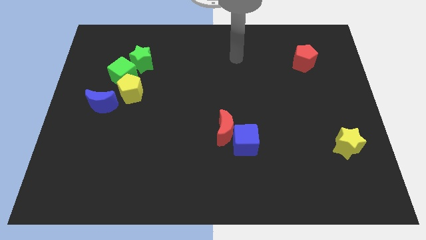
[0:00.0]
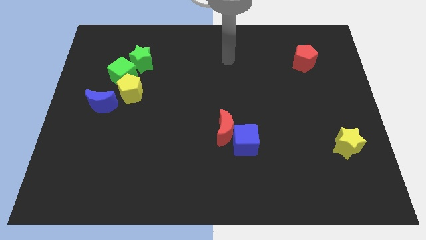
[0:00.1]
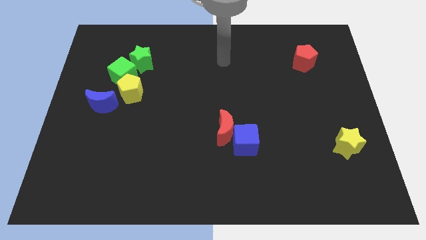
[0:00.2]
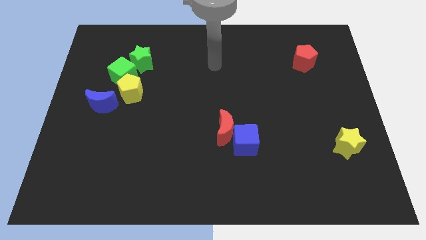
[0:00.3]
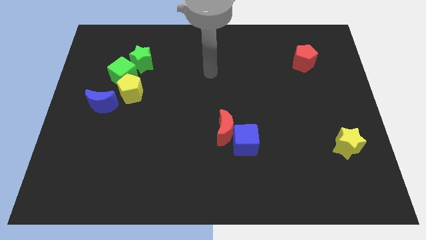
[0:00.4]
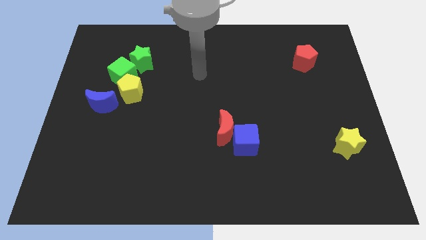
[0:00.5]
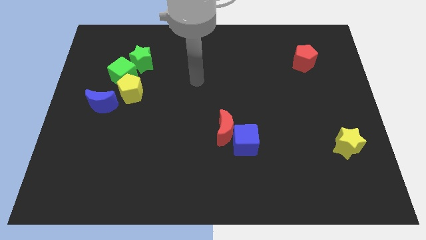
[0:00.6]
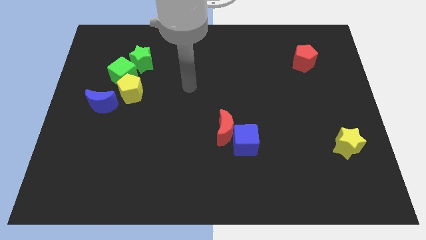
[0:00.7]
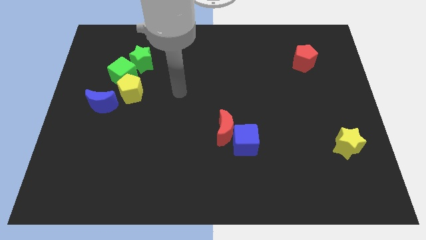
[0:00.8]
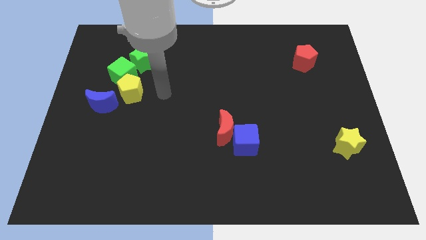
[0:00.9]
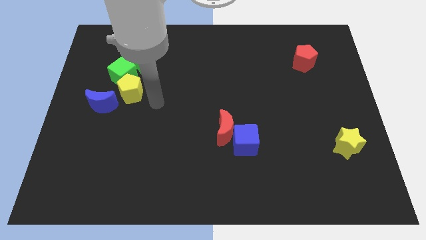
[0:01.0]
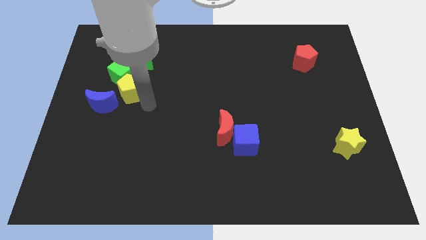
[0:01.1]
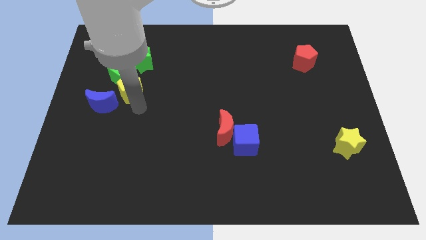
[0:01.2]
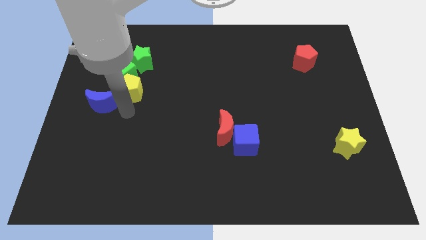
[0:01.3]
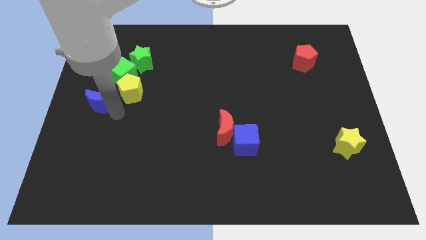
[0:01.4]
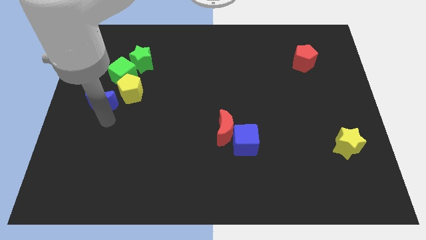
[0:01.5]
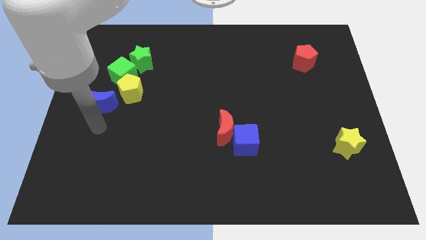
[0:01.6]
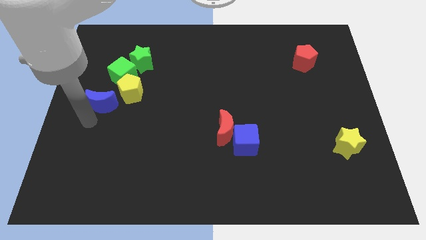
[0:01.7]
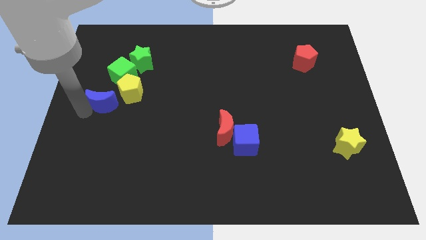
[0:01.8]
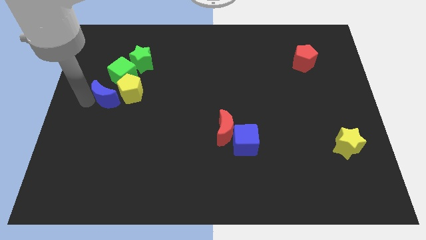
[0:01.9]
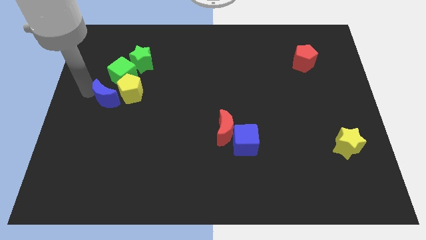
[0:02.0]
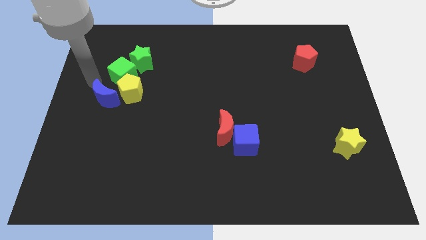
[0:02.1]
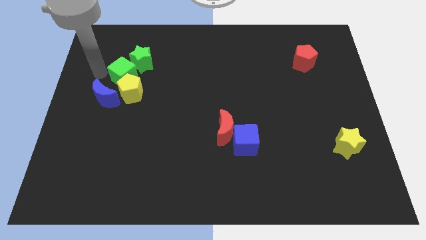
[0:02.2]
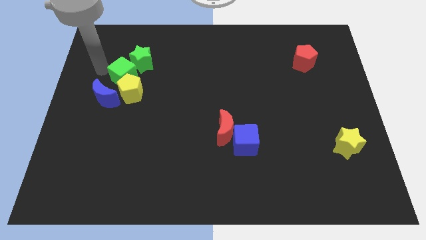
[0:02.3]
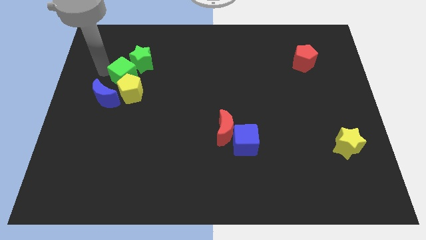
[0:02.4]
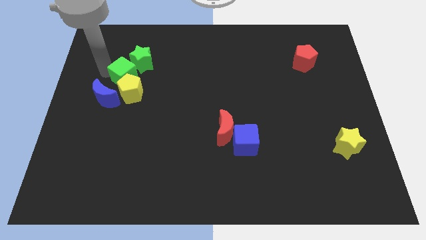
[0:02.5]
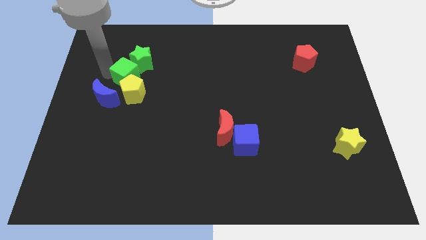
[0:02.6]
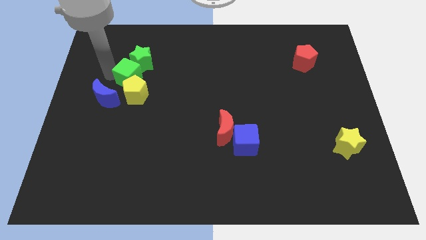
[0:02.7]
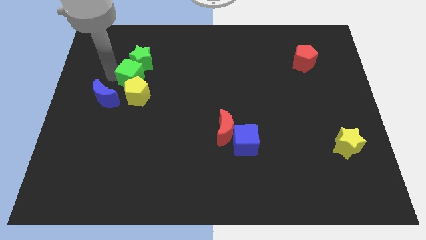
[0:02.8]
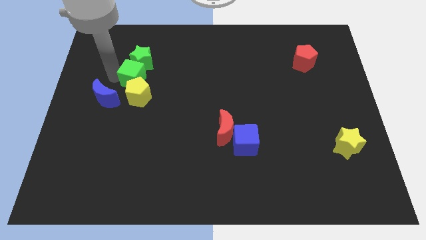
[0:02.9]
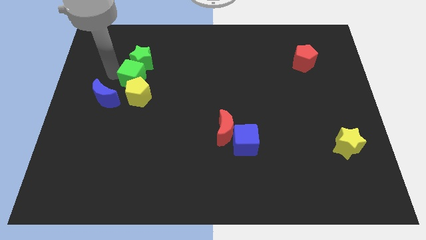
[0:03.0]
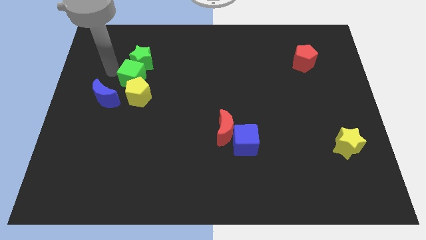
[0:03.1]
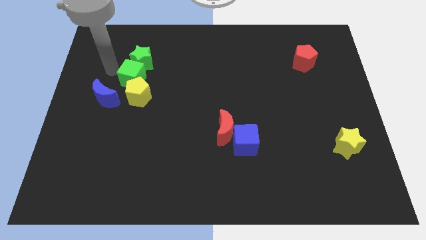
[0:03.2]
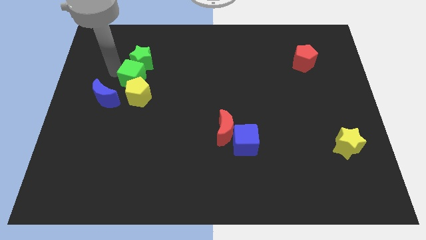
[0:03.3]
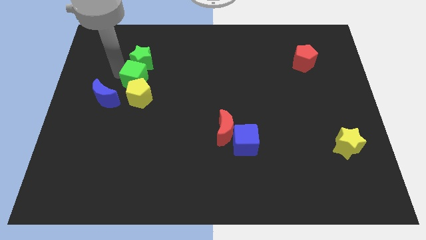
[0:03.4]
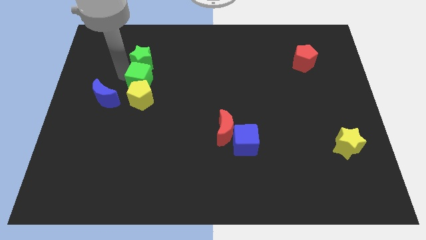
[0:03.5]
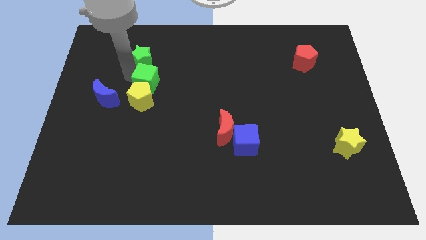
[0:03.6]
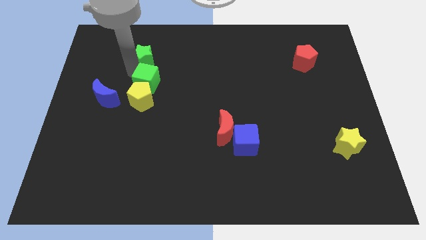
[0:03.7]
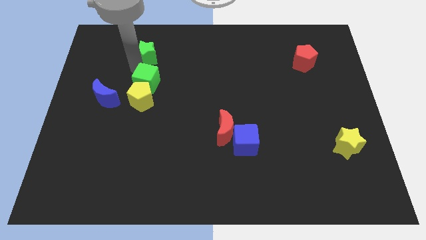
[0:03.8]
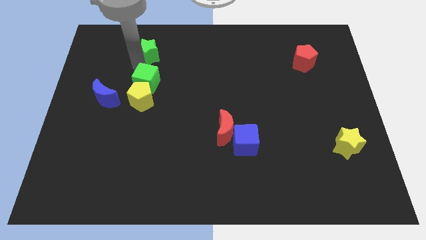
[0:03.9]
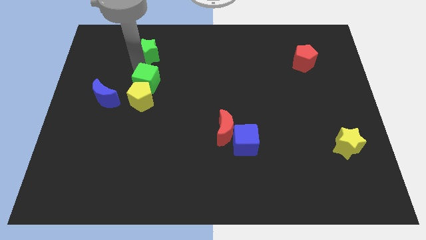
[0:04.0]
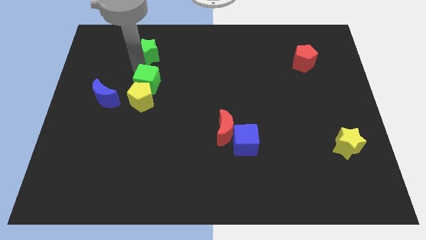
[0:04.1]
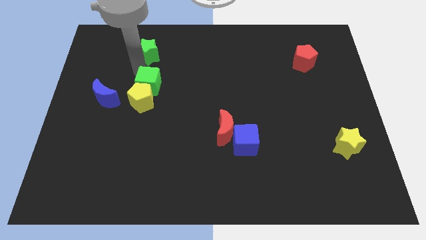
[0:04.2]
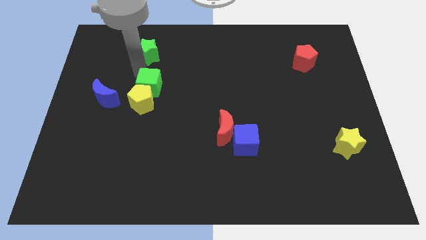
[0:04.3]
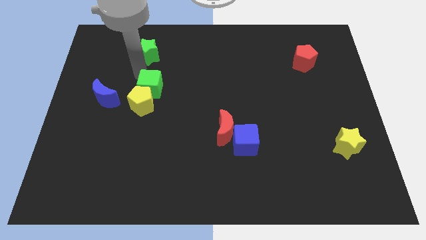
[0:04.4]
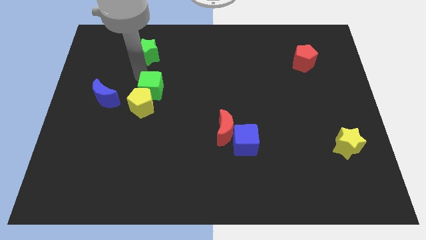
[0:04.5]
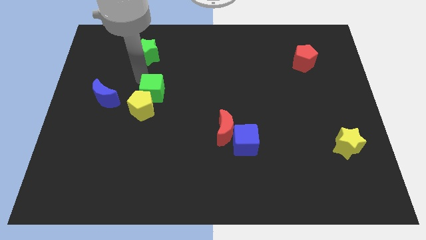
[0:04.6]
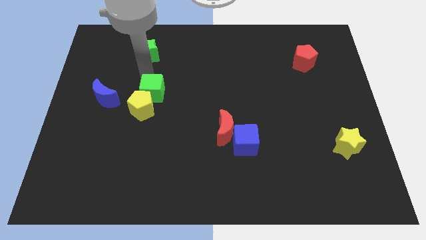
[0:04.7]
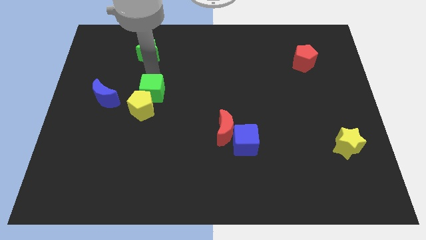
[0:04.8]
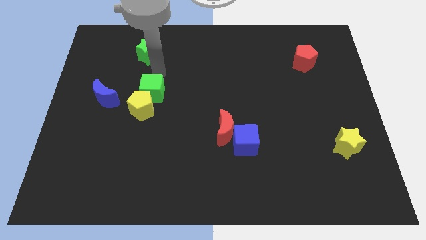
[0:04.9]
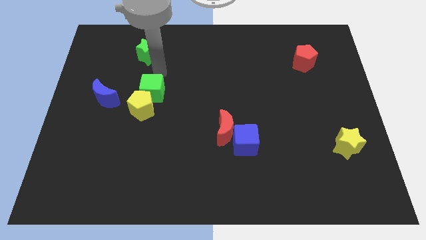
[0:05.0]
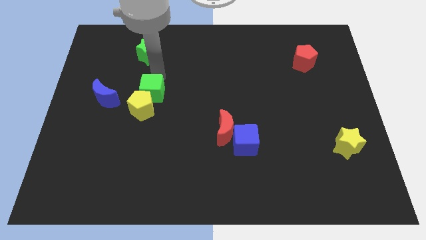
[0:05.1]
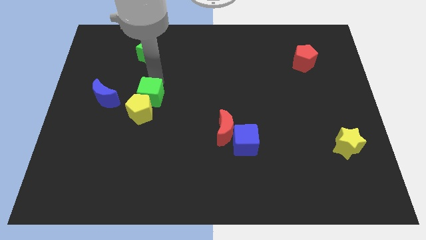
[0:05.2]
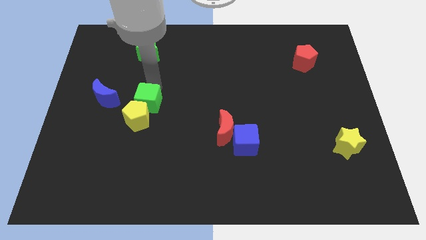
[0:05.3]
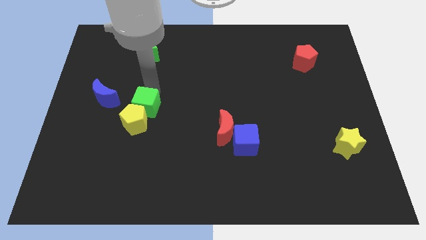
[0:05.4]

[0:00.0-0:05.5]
push the green cube slightly down

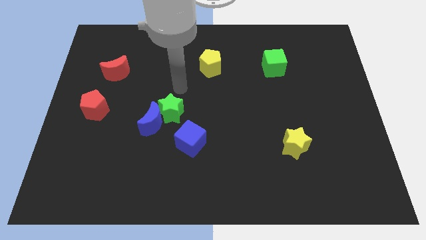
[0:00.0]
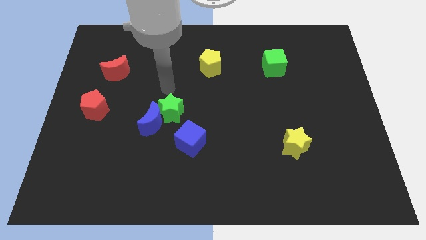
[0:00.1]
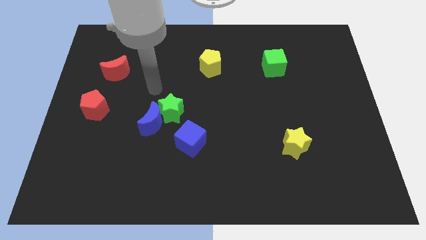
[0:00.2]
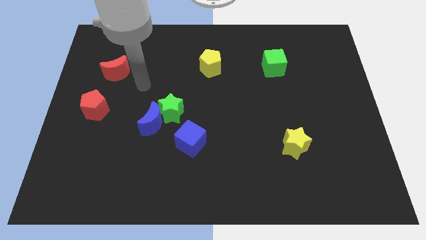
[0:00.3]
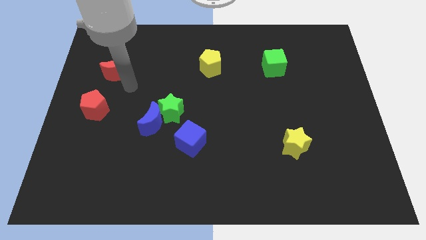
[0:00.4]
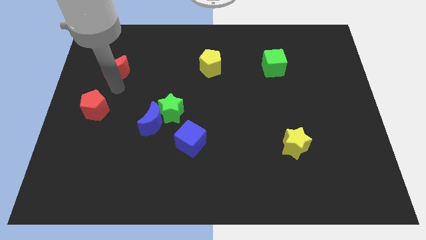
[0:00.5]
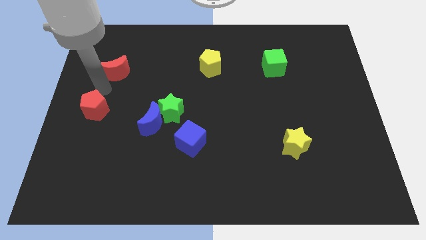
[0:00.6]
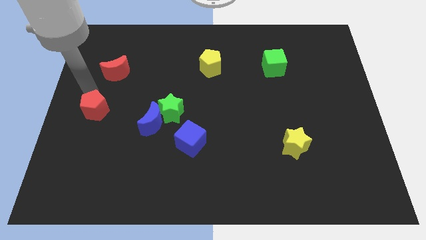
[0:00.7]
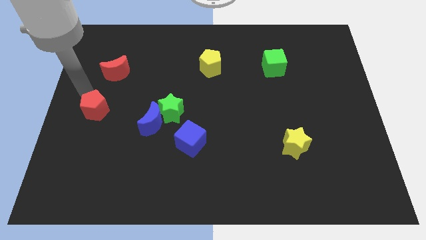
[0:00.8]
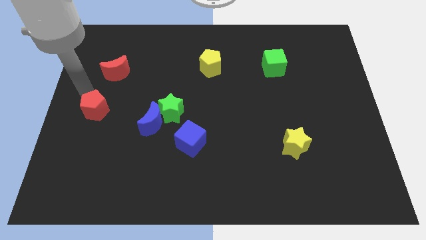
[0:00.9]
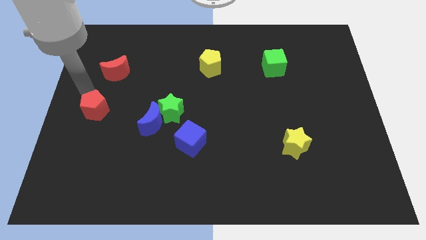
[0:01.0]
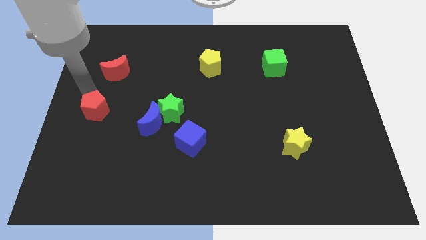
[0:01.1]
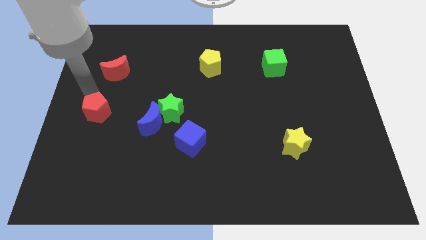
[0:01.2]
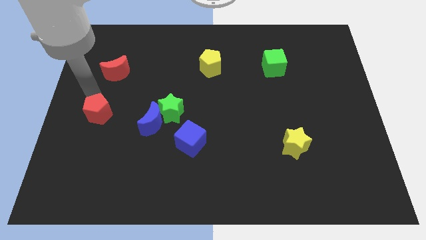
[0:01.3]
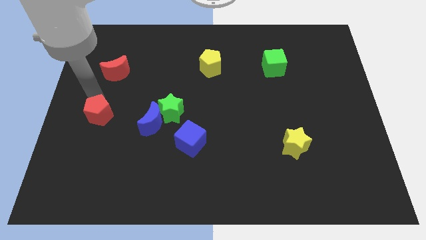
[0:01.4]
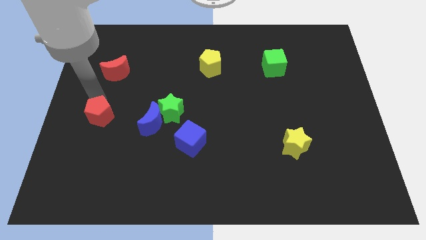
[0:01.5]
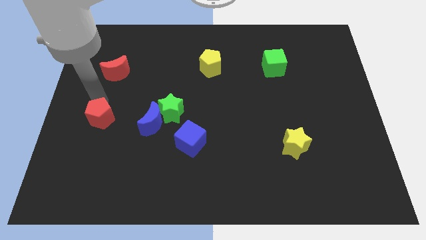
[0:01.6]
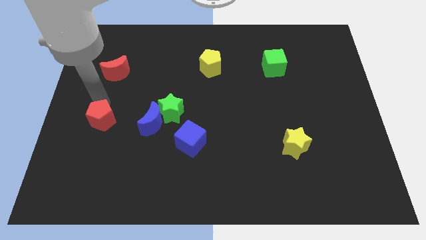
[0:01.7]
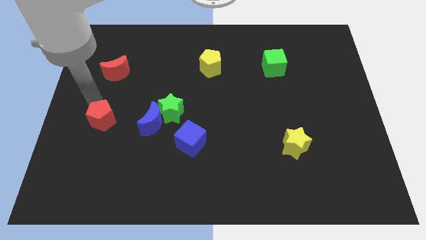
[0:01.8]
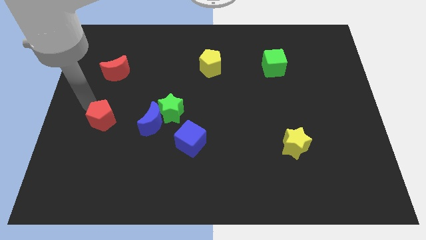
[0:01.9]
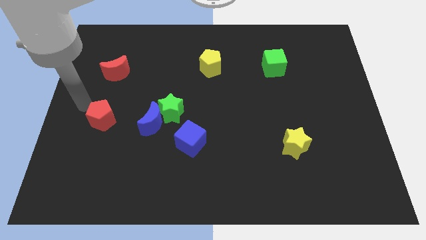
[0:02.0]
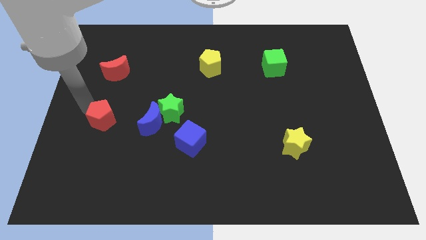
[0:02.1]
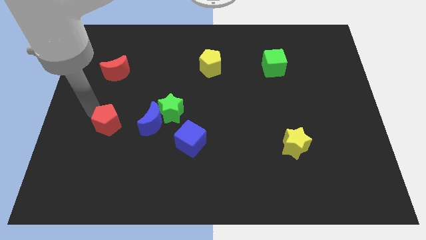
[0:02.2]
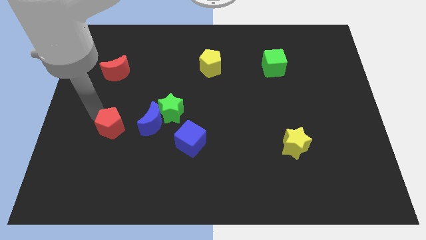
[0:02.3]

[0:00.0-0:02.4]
move the red pentagon downwards and right diagonally a little

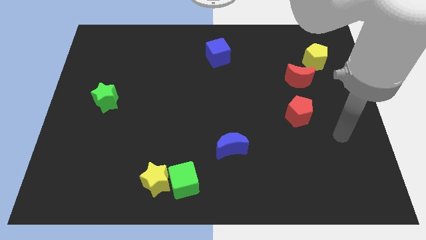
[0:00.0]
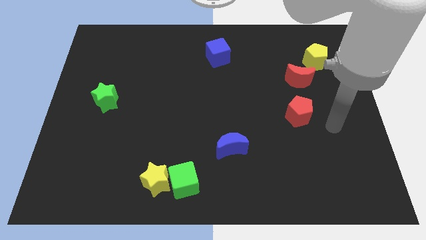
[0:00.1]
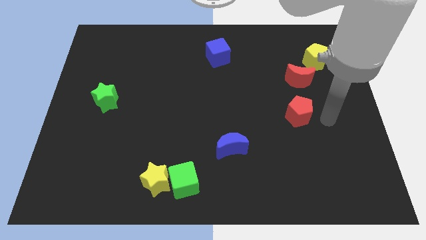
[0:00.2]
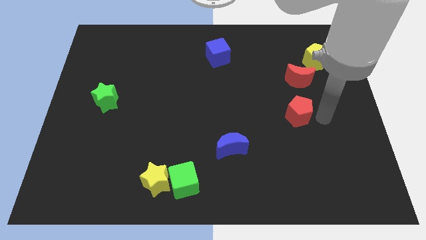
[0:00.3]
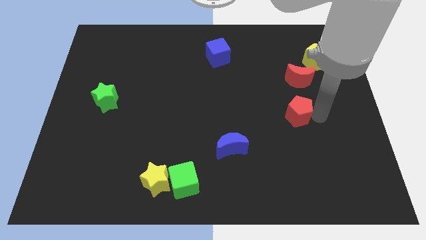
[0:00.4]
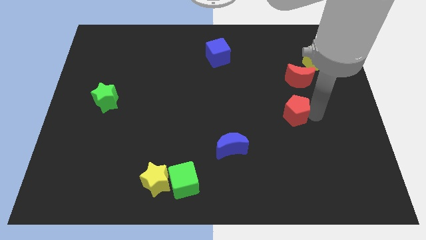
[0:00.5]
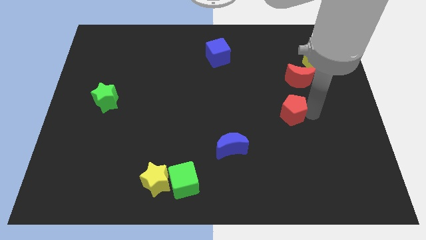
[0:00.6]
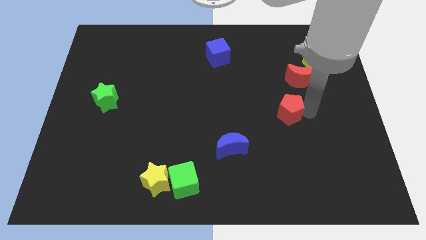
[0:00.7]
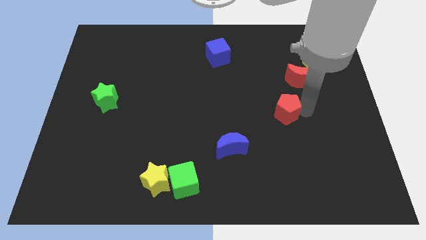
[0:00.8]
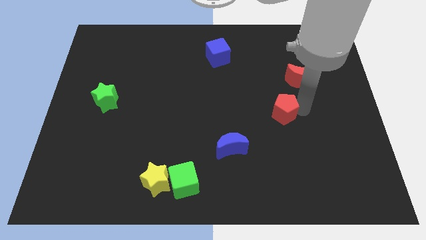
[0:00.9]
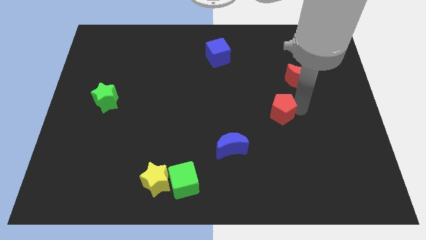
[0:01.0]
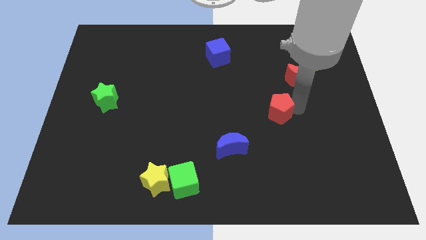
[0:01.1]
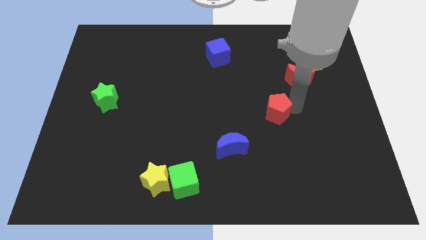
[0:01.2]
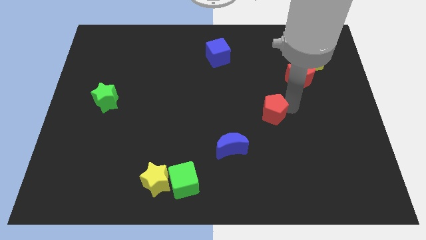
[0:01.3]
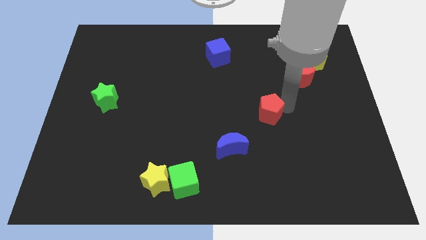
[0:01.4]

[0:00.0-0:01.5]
slide the red pentagon somewhat to the left
